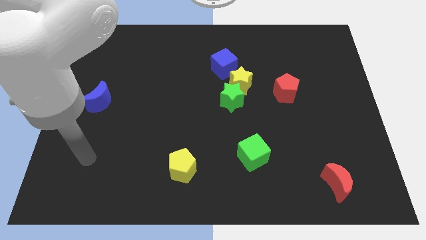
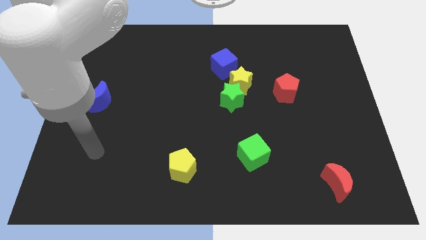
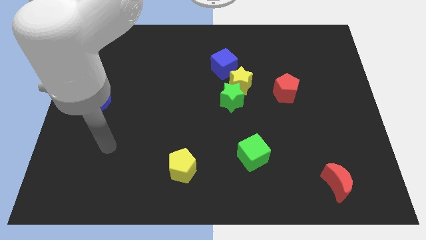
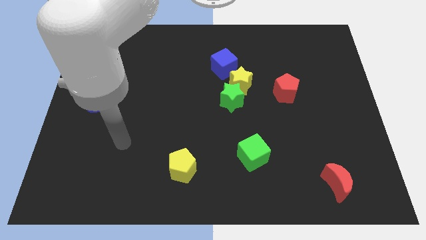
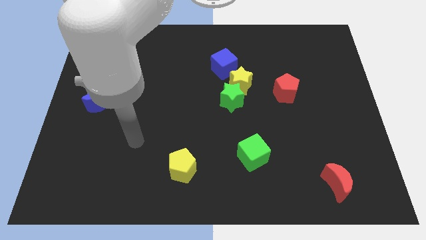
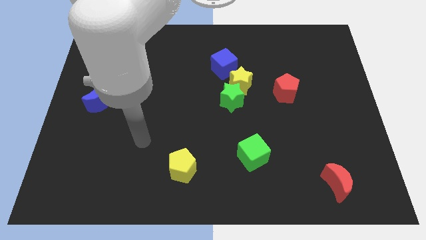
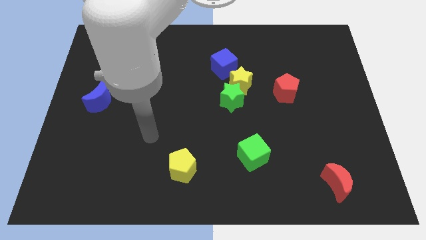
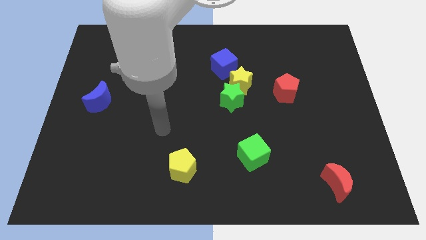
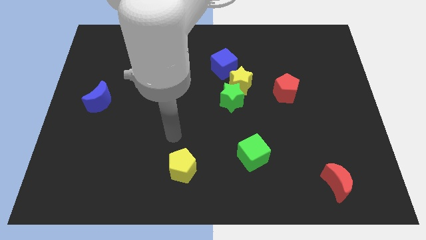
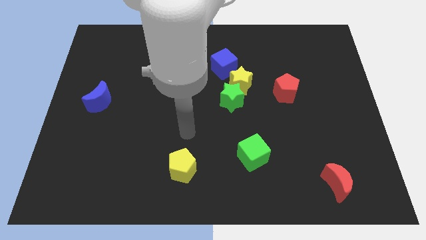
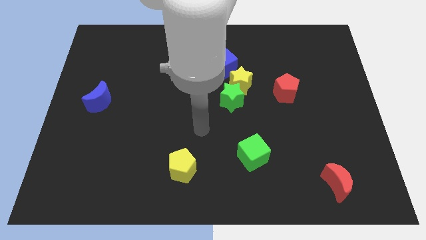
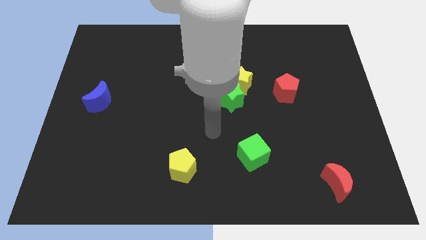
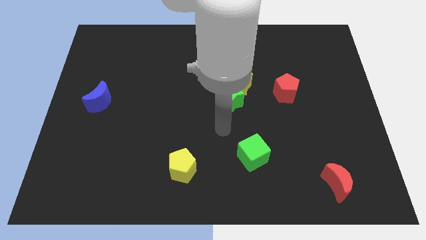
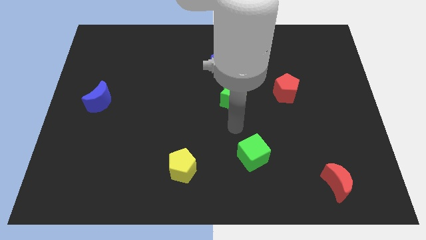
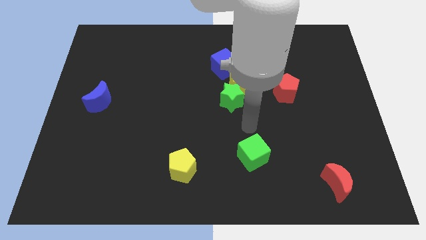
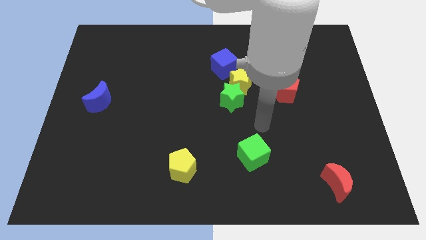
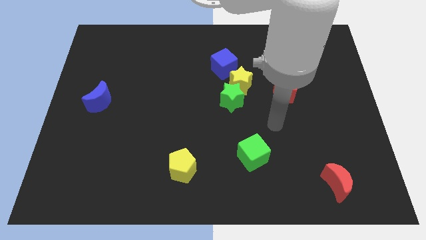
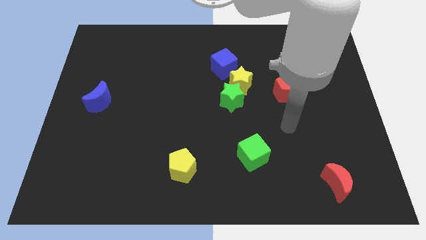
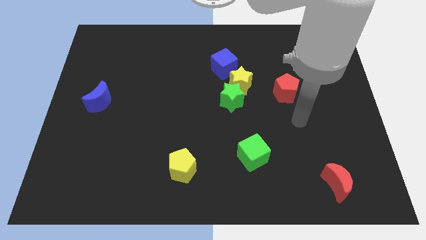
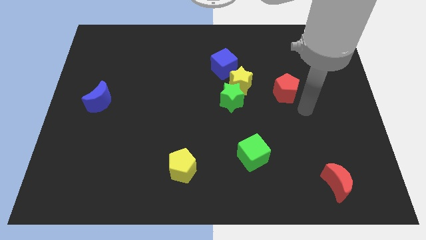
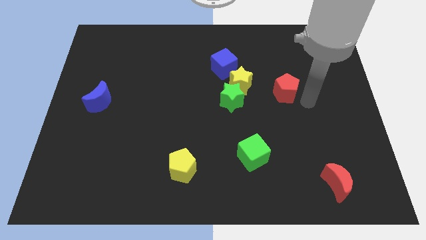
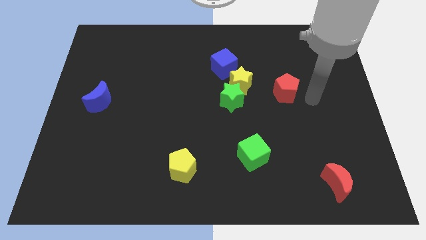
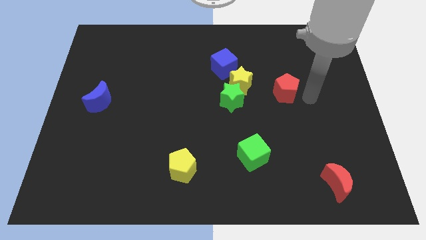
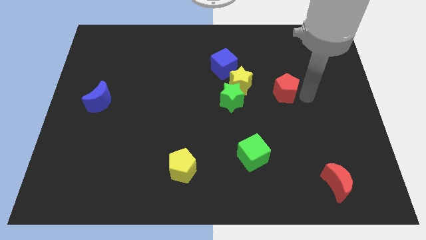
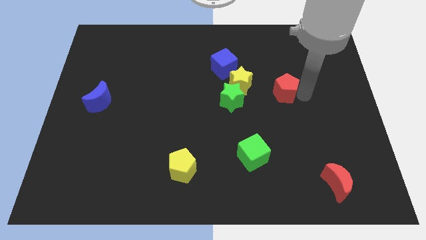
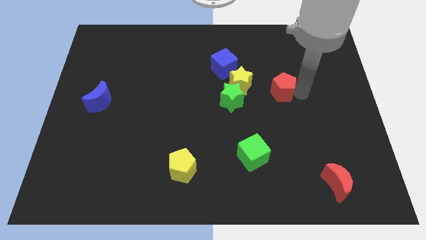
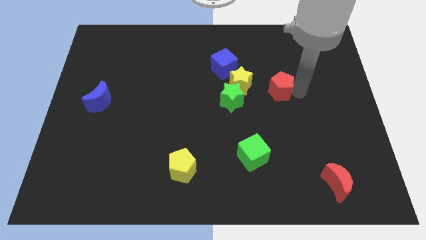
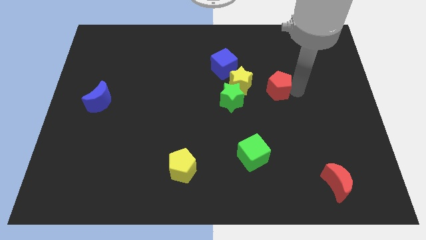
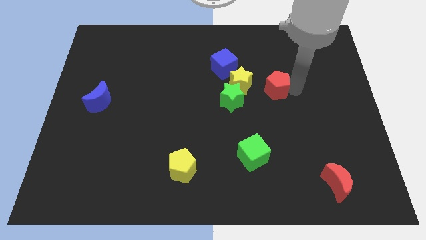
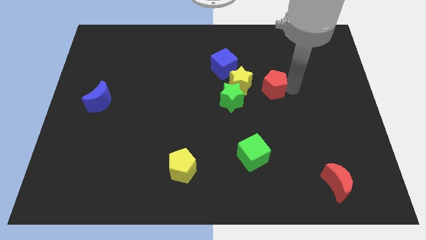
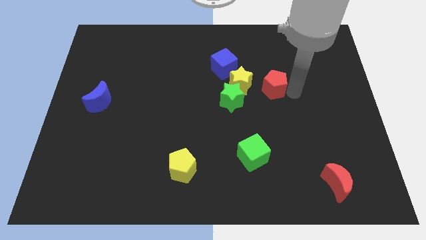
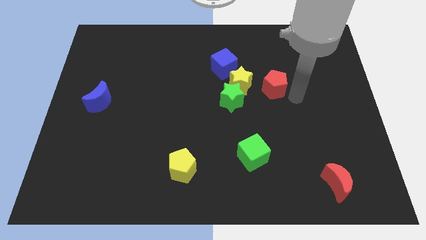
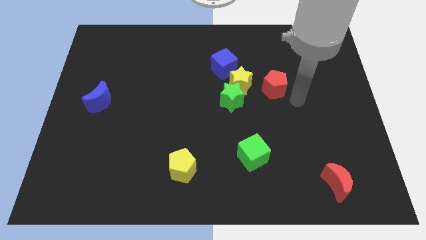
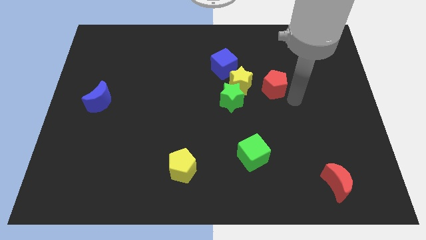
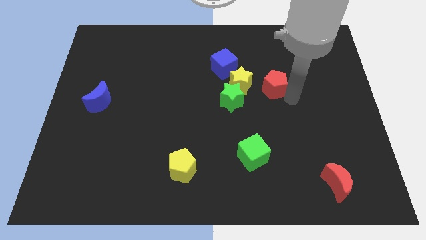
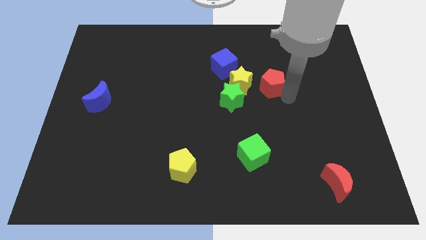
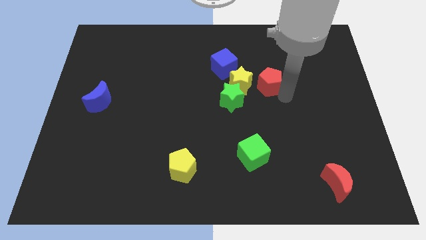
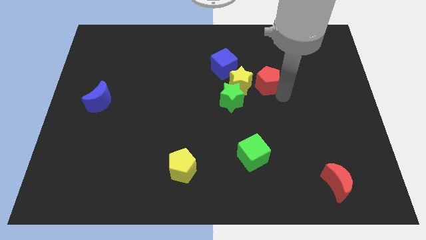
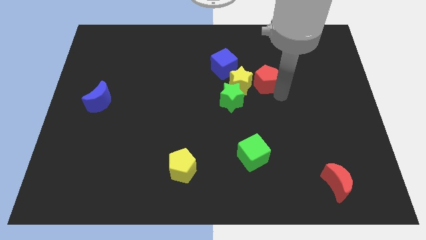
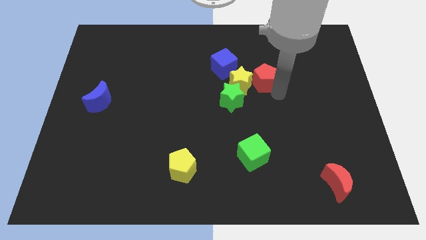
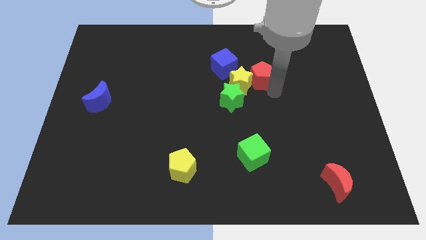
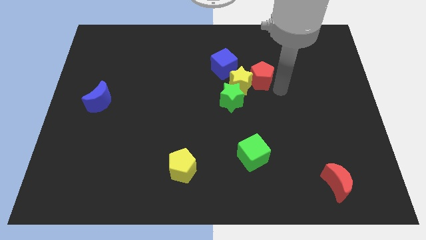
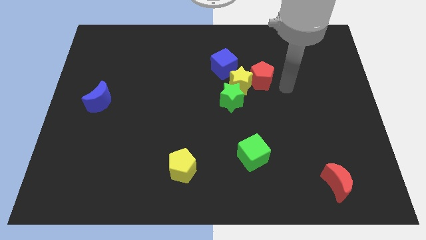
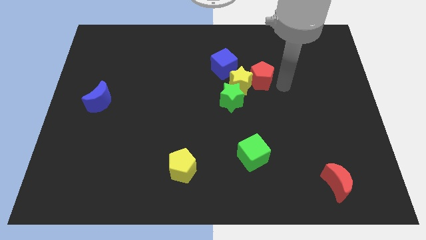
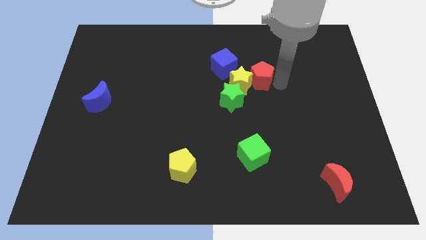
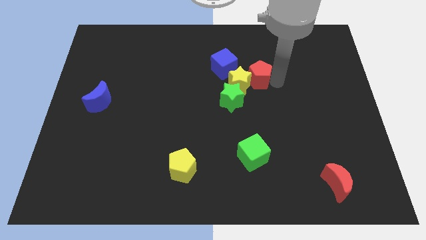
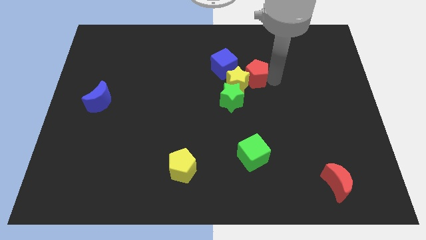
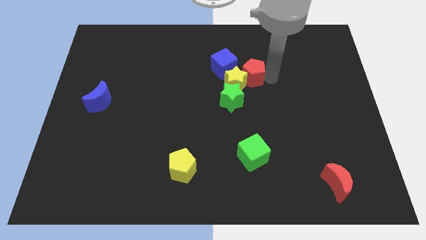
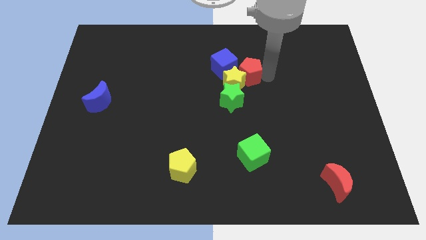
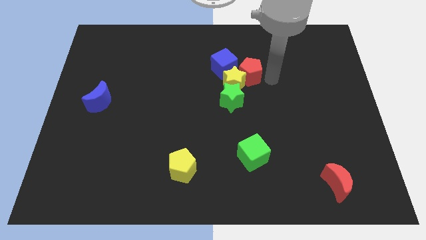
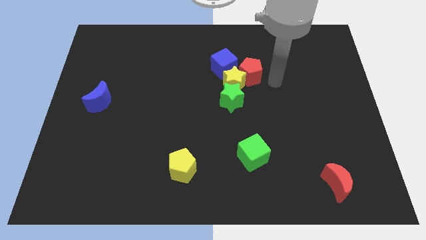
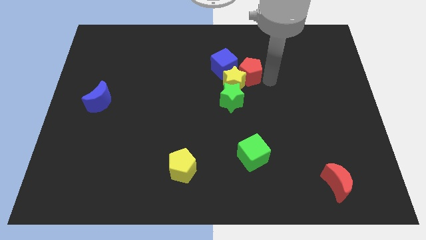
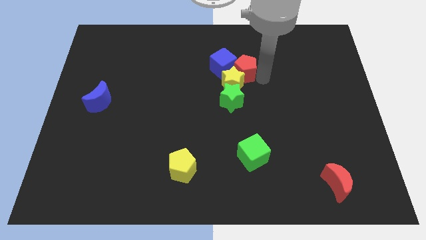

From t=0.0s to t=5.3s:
slide the red pentagon close to the blue cube
